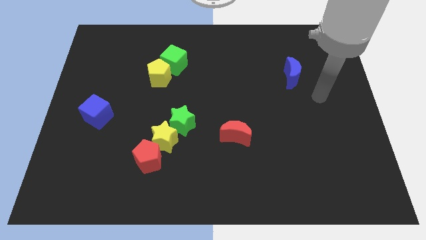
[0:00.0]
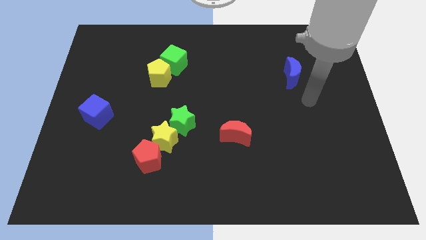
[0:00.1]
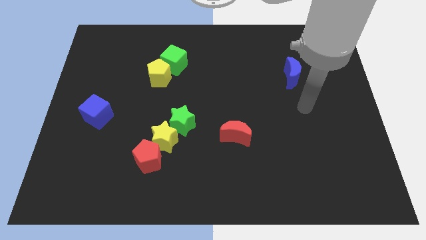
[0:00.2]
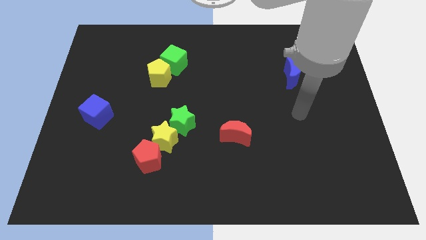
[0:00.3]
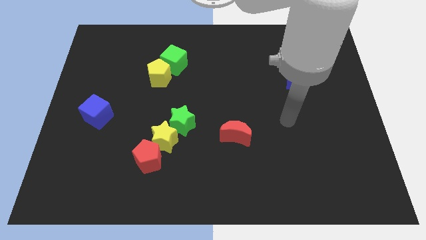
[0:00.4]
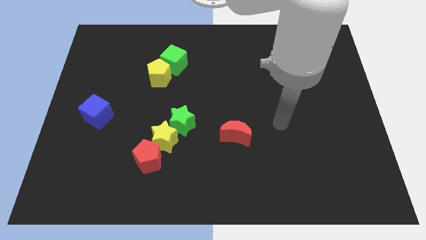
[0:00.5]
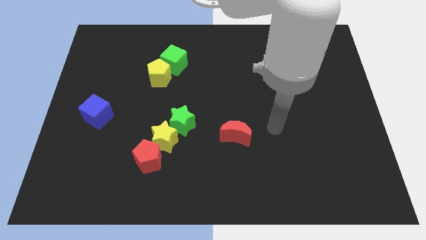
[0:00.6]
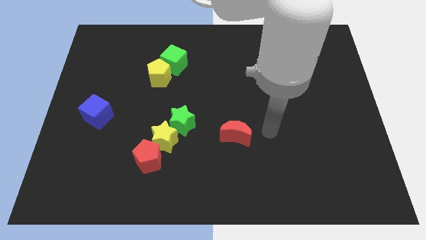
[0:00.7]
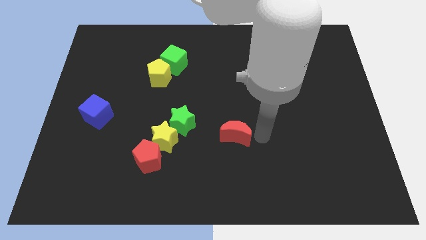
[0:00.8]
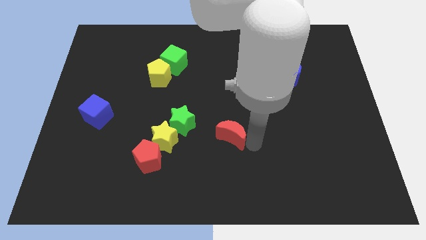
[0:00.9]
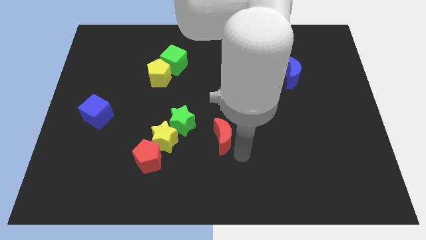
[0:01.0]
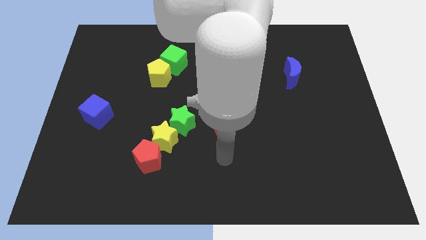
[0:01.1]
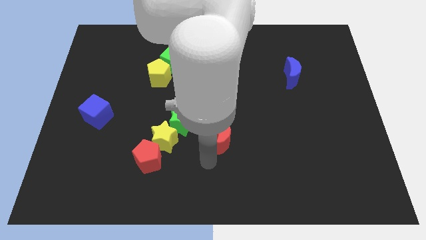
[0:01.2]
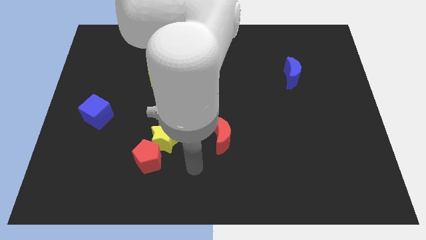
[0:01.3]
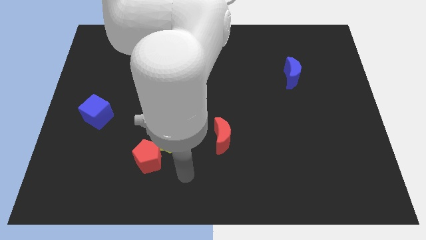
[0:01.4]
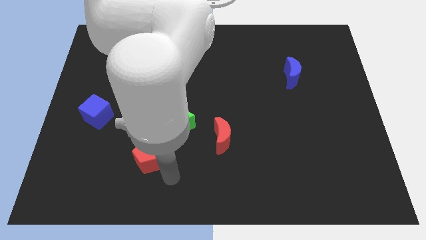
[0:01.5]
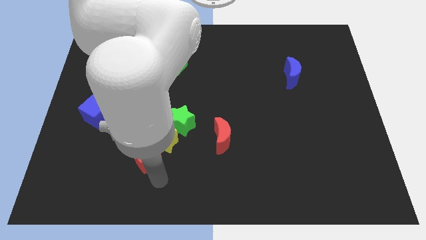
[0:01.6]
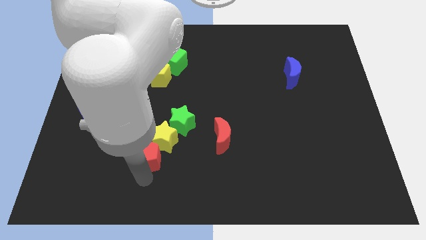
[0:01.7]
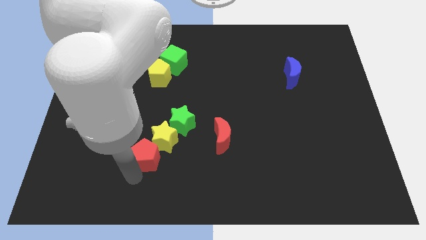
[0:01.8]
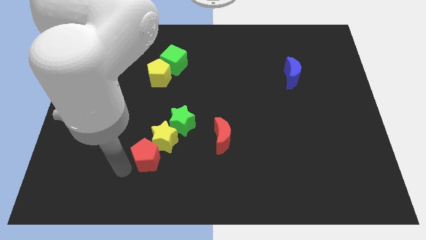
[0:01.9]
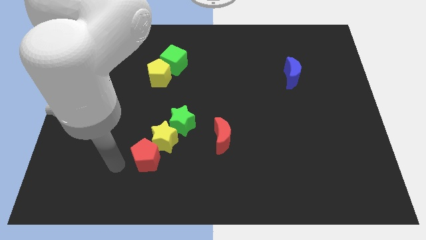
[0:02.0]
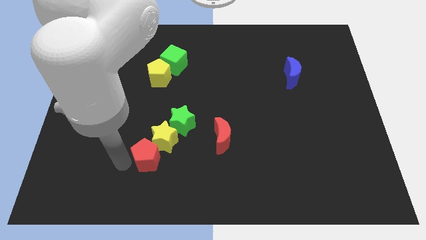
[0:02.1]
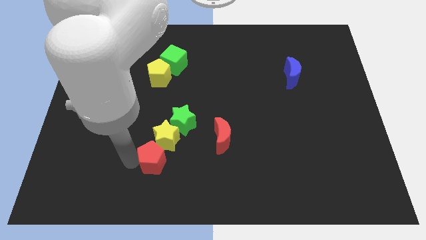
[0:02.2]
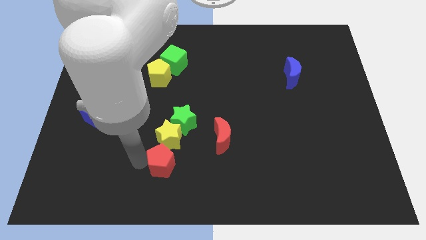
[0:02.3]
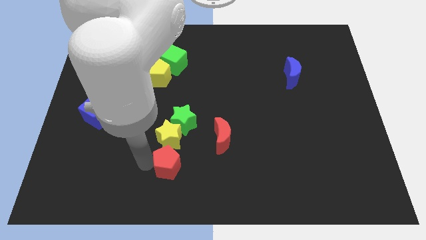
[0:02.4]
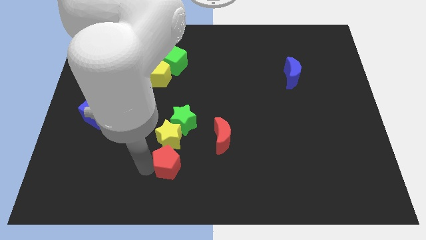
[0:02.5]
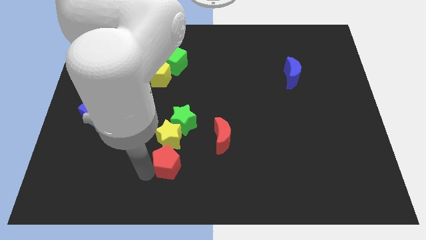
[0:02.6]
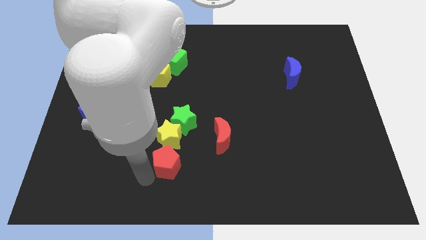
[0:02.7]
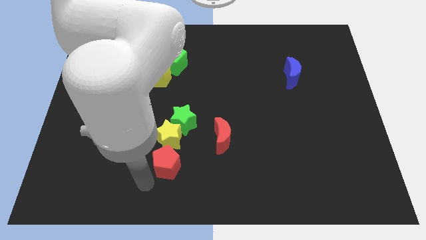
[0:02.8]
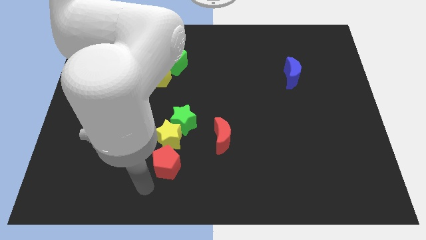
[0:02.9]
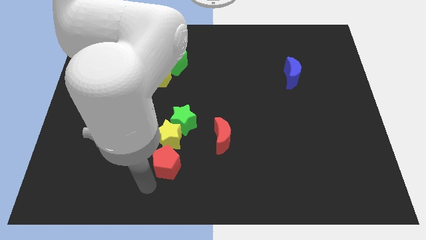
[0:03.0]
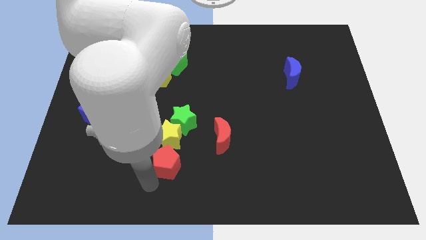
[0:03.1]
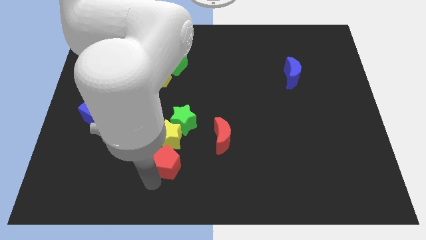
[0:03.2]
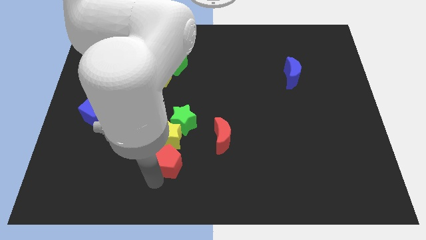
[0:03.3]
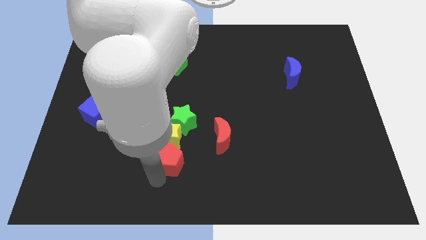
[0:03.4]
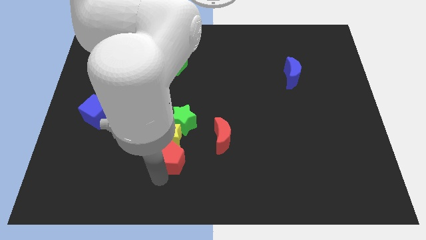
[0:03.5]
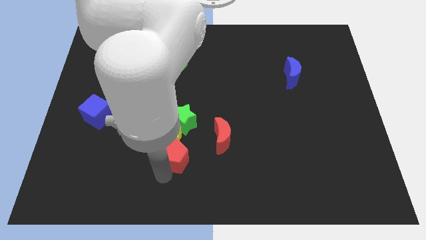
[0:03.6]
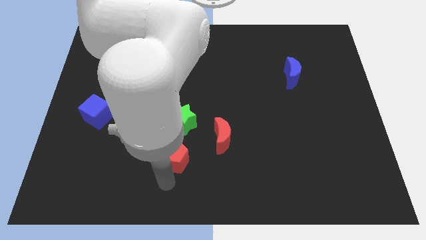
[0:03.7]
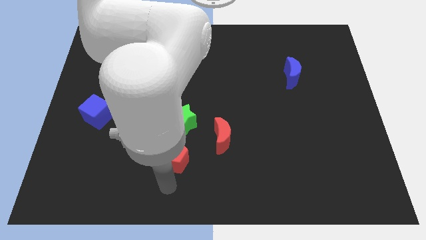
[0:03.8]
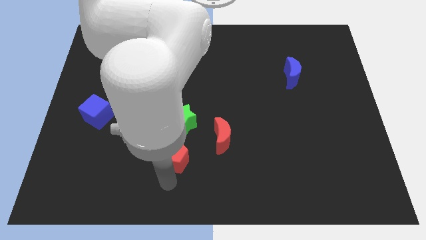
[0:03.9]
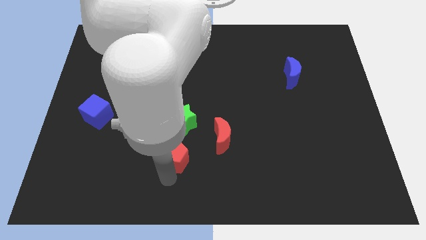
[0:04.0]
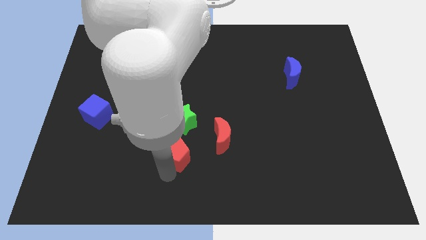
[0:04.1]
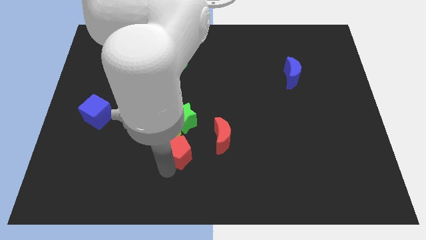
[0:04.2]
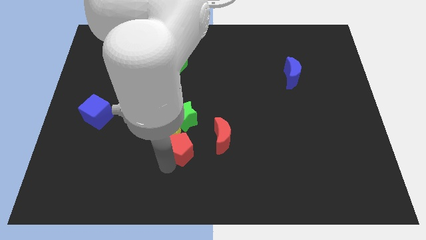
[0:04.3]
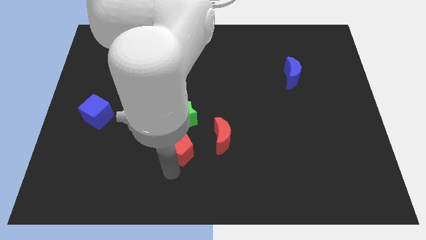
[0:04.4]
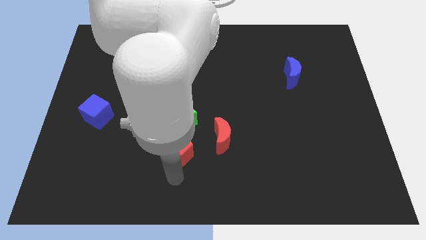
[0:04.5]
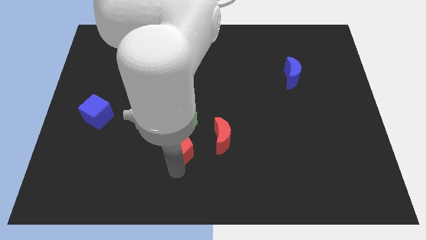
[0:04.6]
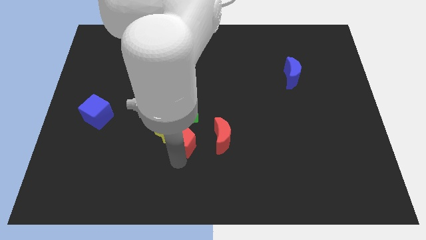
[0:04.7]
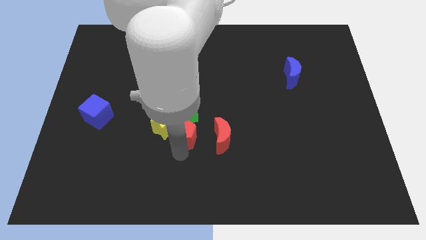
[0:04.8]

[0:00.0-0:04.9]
put the red pentagon next to the green star

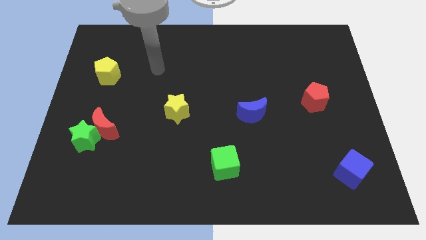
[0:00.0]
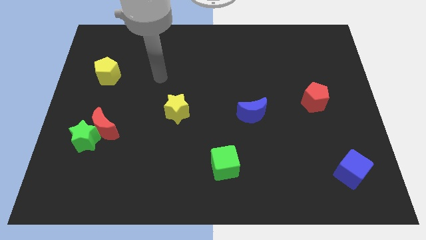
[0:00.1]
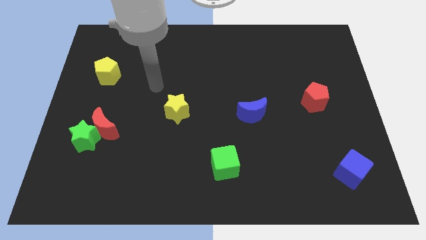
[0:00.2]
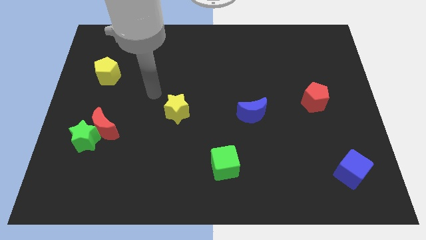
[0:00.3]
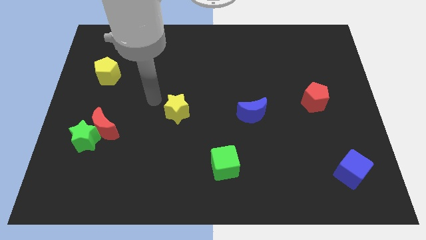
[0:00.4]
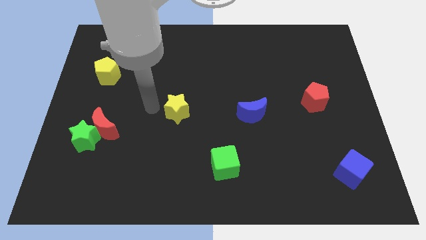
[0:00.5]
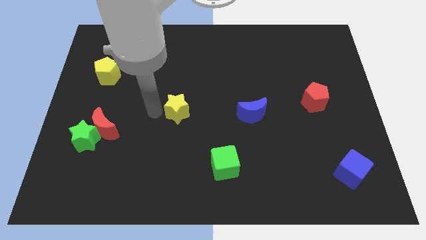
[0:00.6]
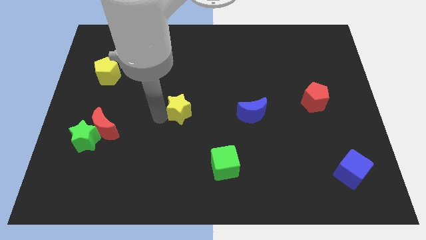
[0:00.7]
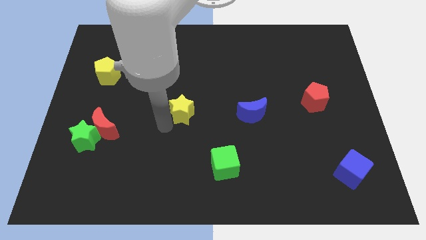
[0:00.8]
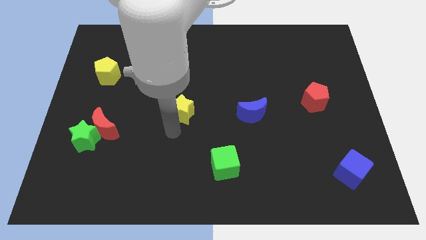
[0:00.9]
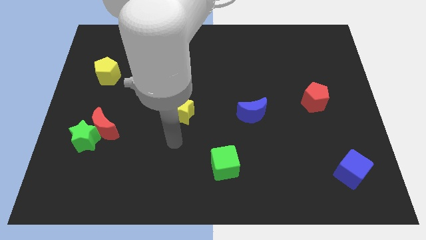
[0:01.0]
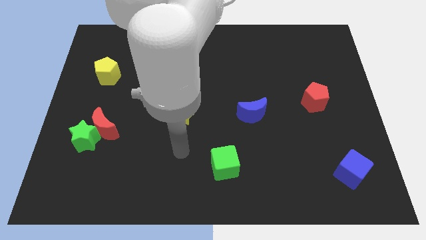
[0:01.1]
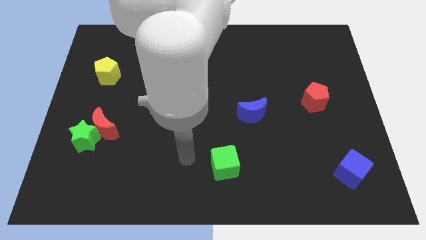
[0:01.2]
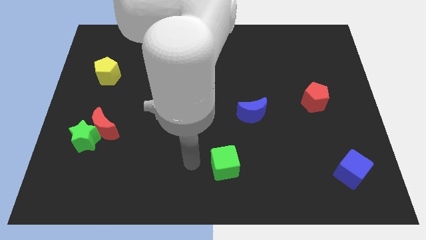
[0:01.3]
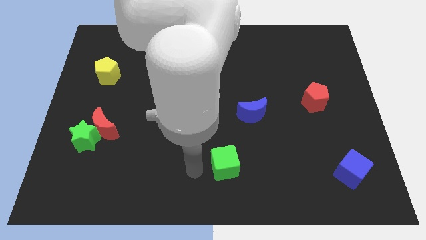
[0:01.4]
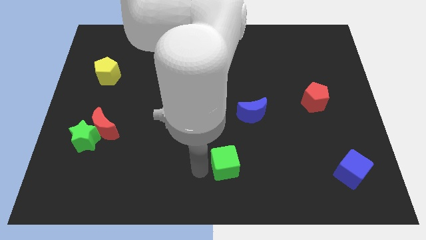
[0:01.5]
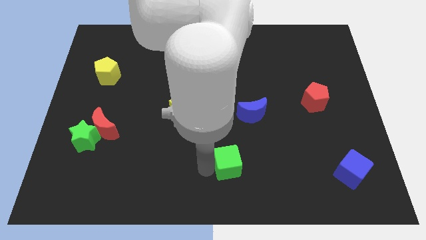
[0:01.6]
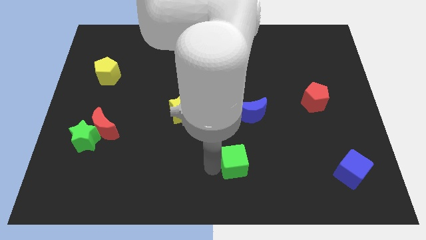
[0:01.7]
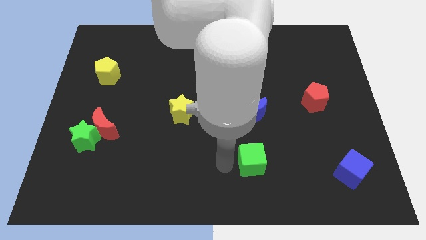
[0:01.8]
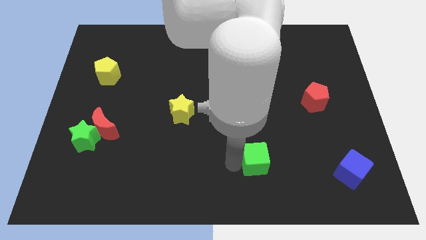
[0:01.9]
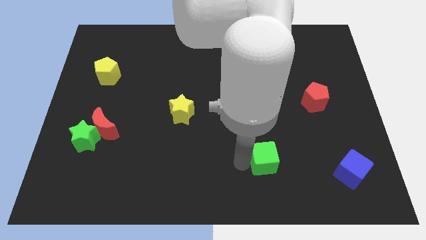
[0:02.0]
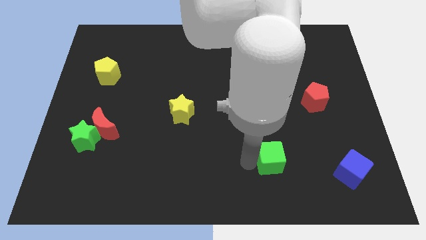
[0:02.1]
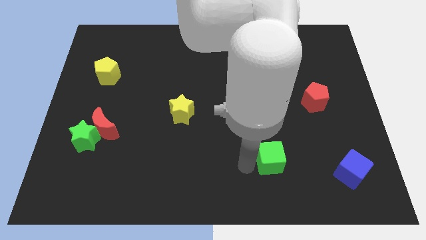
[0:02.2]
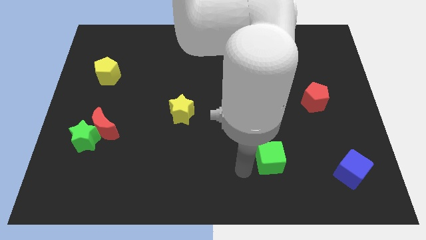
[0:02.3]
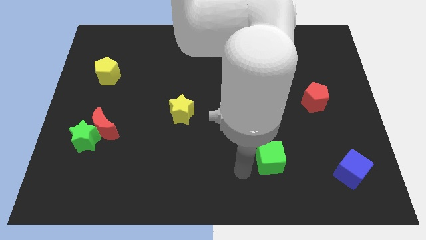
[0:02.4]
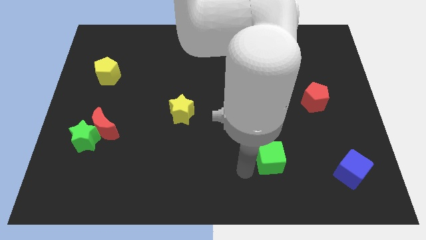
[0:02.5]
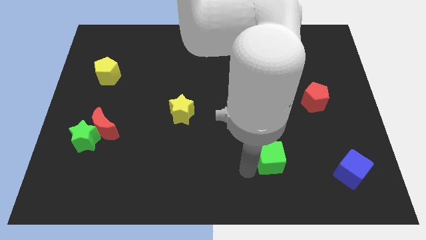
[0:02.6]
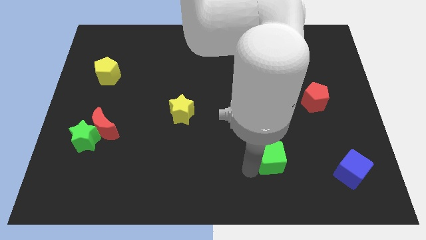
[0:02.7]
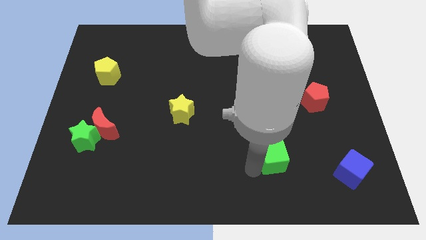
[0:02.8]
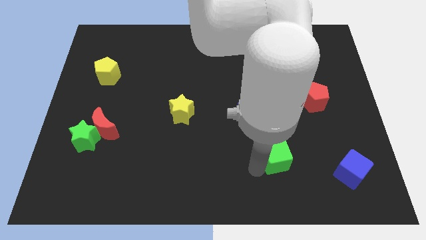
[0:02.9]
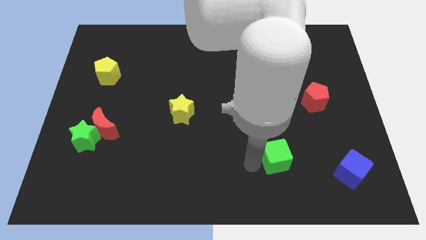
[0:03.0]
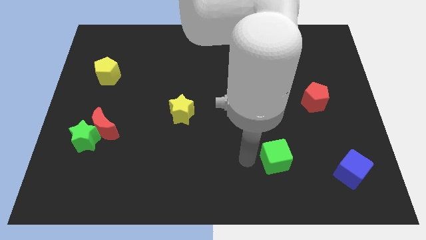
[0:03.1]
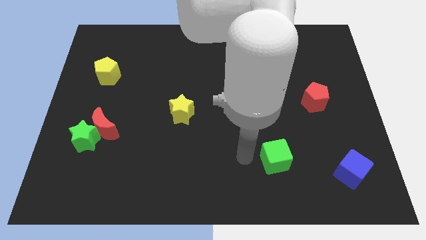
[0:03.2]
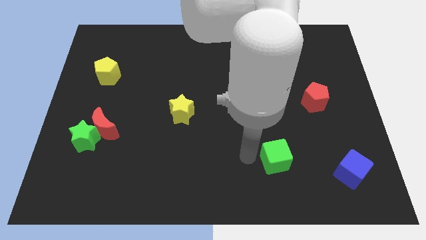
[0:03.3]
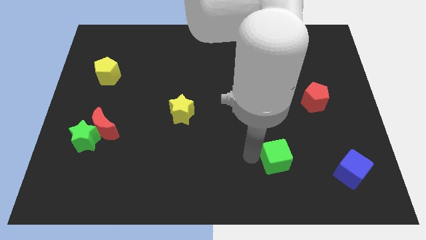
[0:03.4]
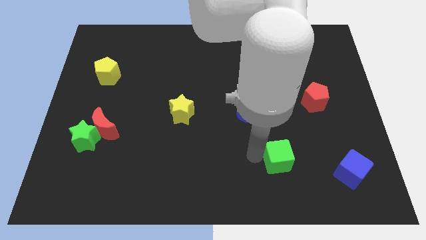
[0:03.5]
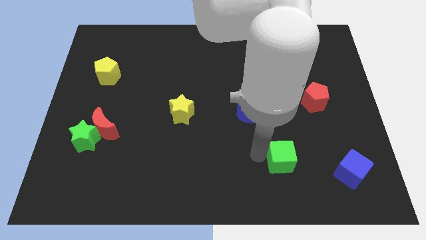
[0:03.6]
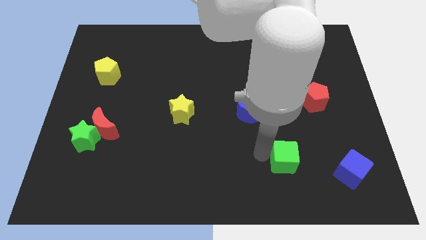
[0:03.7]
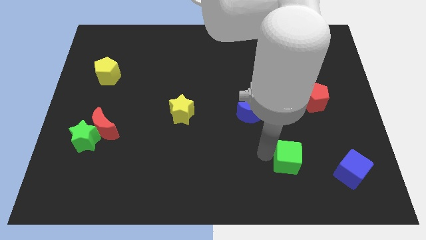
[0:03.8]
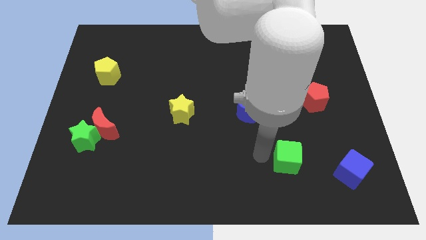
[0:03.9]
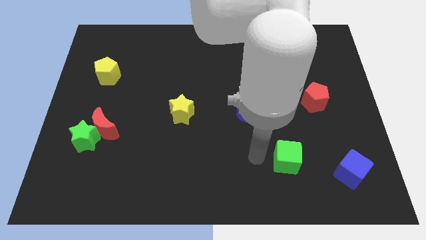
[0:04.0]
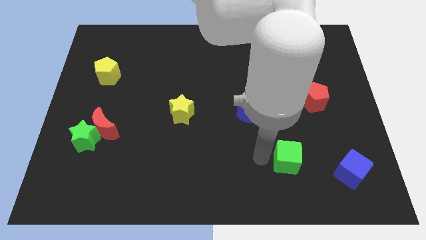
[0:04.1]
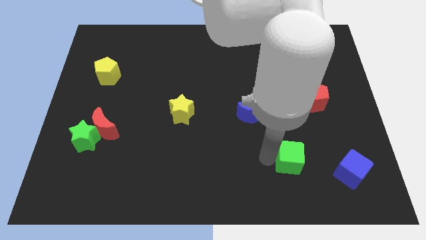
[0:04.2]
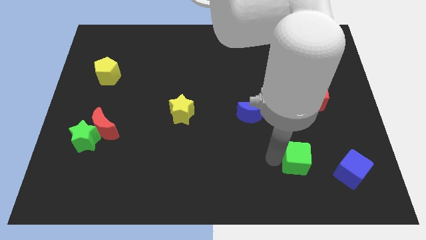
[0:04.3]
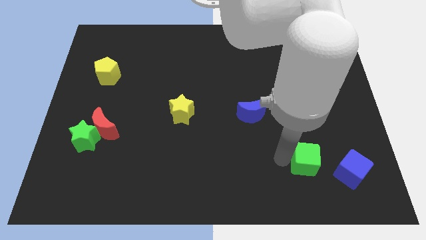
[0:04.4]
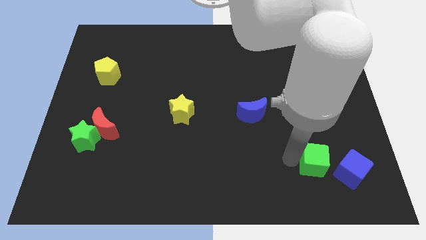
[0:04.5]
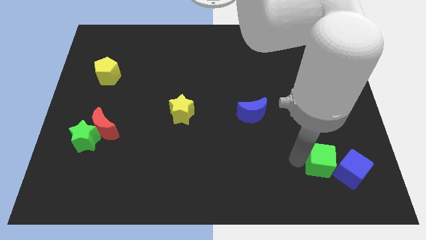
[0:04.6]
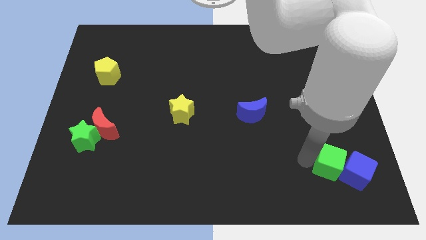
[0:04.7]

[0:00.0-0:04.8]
push the green cube to the blue cube
